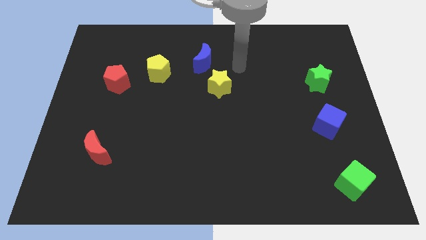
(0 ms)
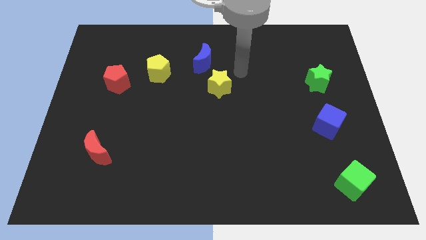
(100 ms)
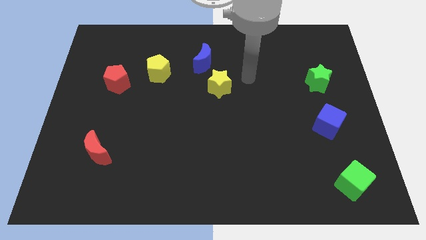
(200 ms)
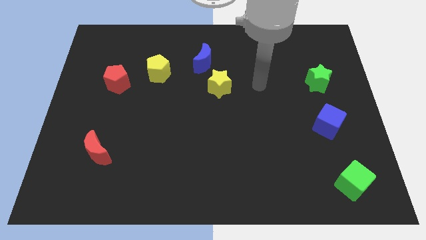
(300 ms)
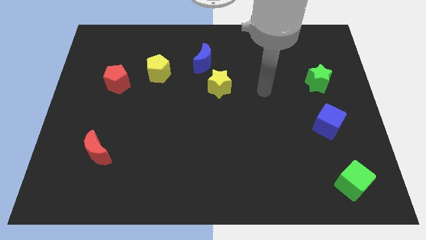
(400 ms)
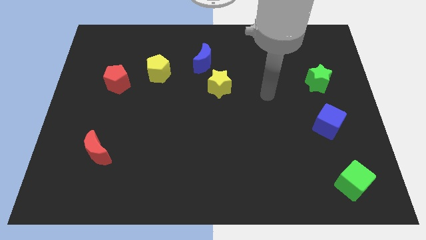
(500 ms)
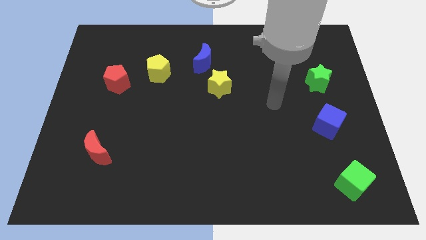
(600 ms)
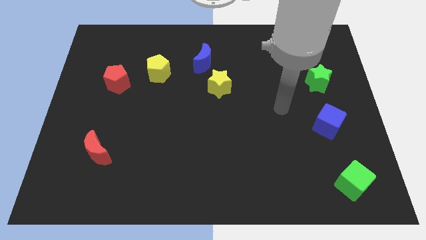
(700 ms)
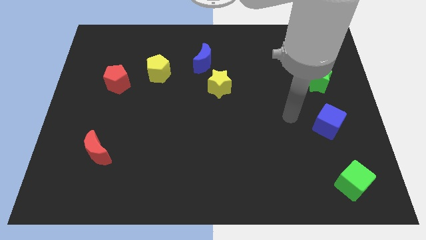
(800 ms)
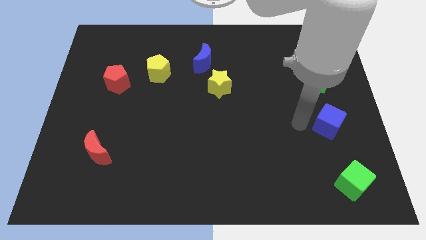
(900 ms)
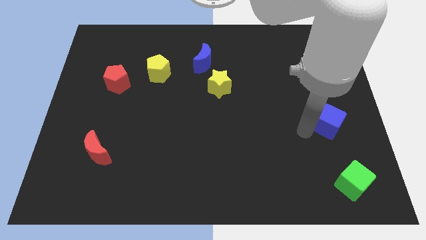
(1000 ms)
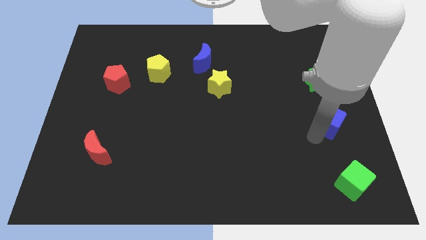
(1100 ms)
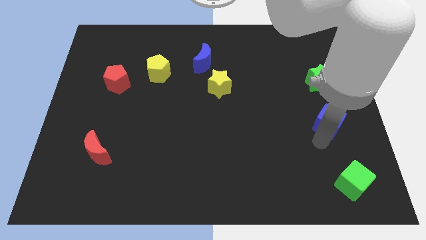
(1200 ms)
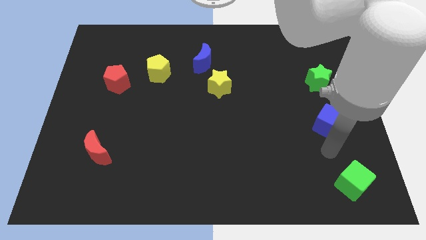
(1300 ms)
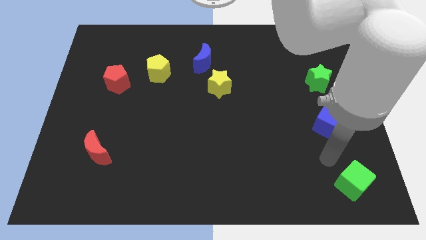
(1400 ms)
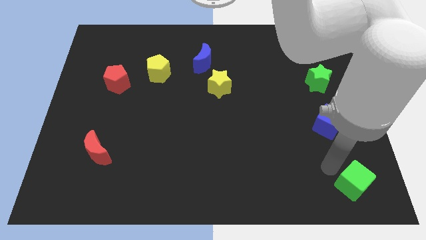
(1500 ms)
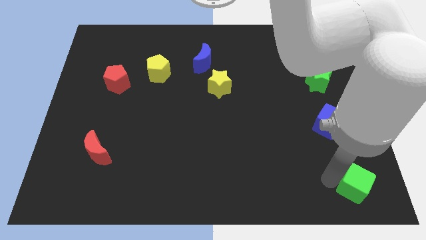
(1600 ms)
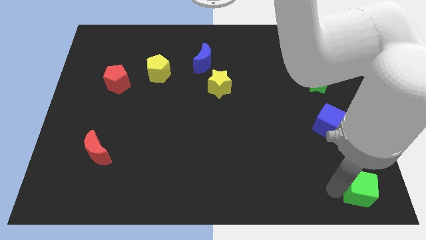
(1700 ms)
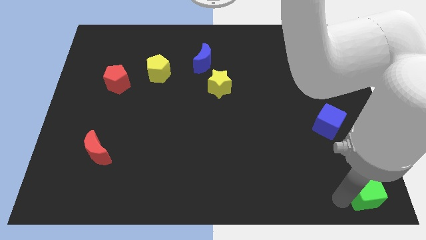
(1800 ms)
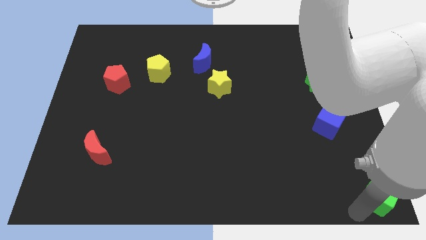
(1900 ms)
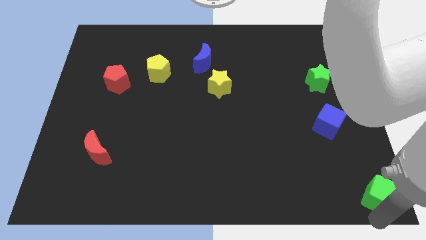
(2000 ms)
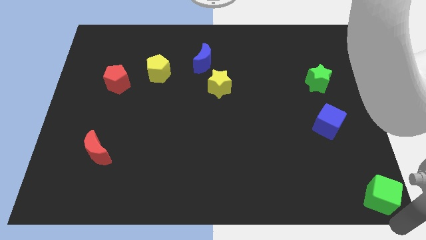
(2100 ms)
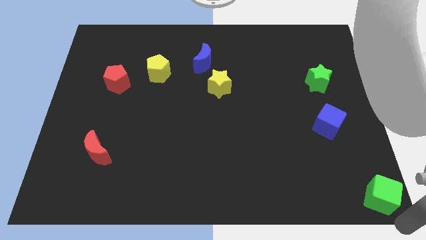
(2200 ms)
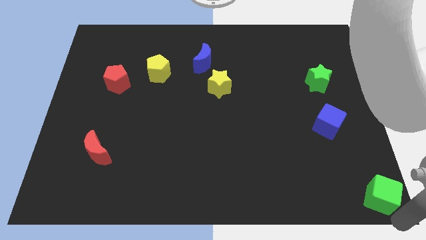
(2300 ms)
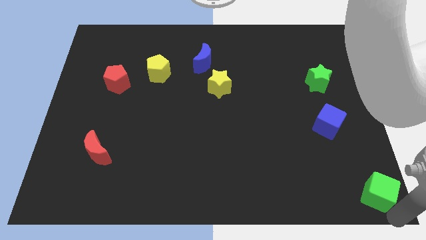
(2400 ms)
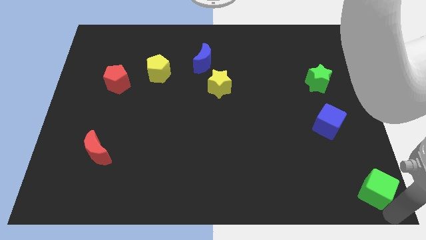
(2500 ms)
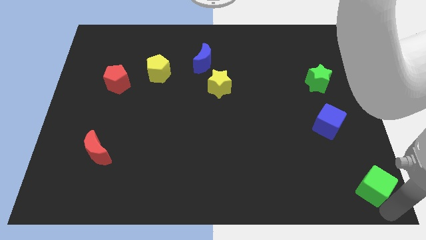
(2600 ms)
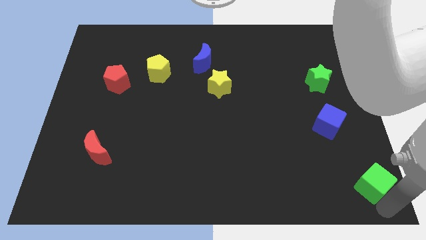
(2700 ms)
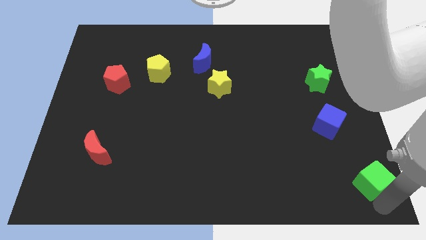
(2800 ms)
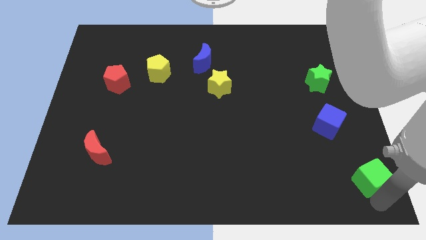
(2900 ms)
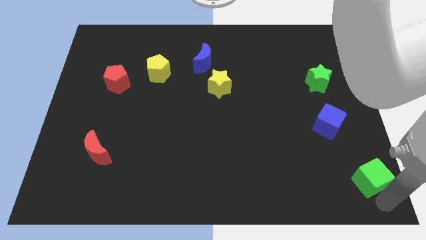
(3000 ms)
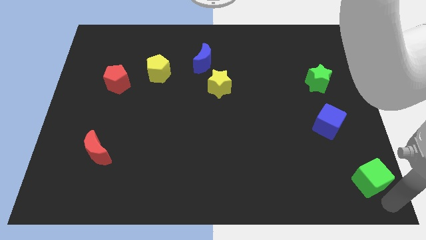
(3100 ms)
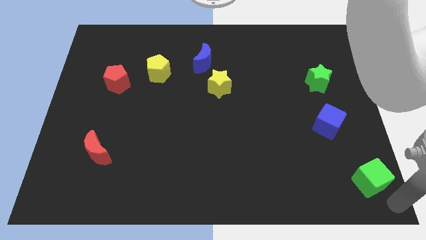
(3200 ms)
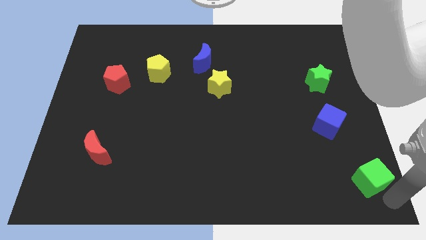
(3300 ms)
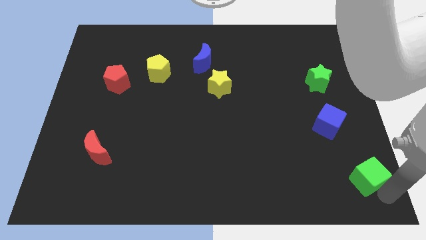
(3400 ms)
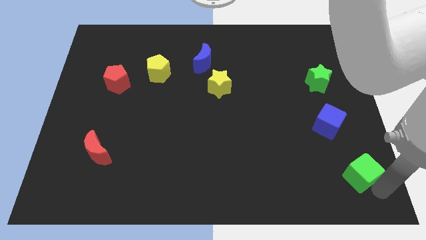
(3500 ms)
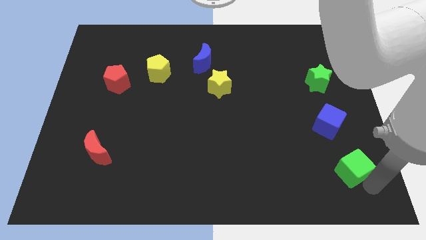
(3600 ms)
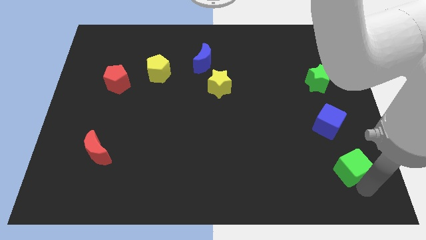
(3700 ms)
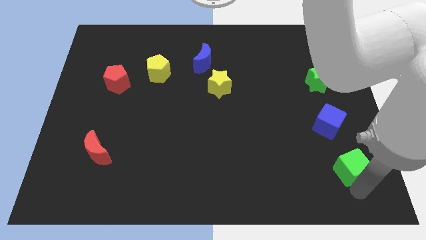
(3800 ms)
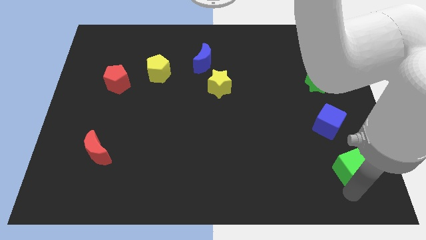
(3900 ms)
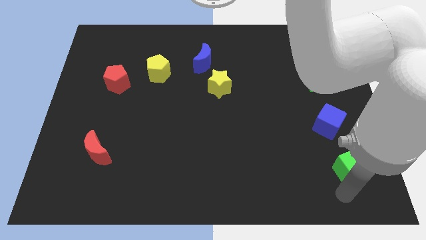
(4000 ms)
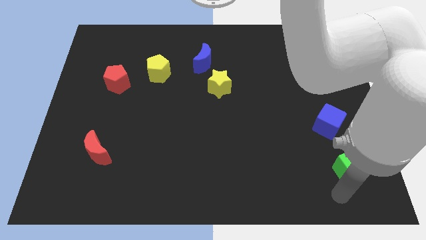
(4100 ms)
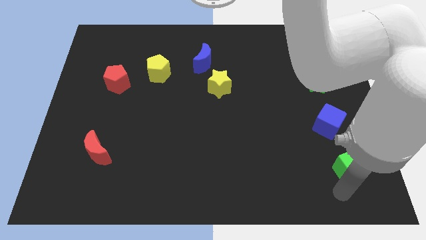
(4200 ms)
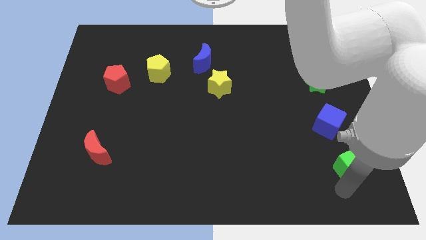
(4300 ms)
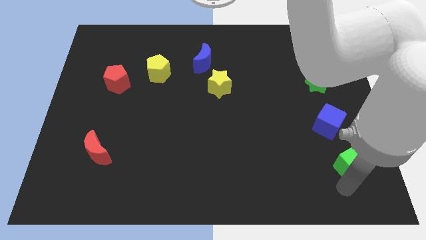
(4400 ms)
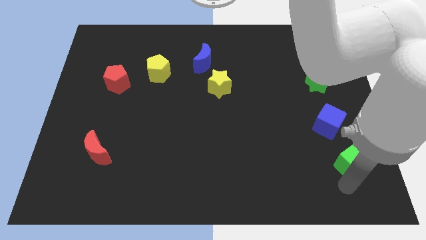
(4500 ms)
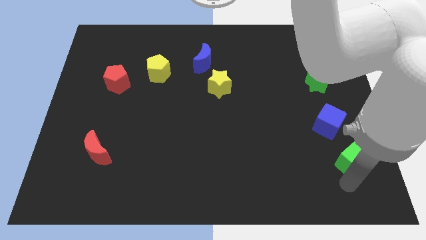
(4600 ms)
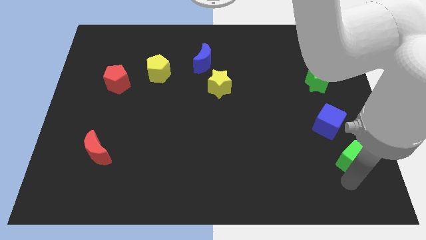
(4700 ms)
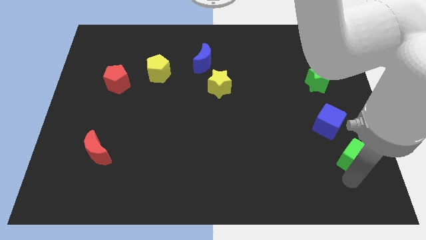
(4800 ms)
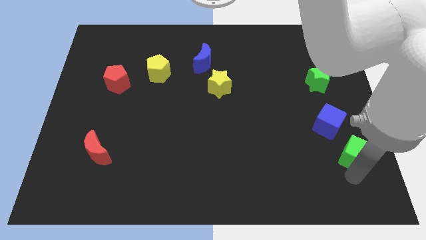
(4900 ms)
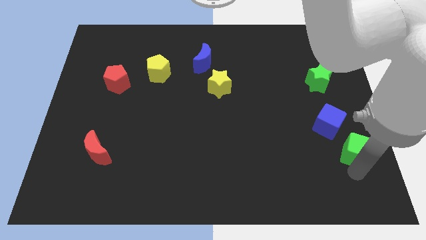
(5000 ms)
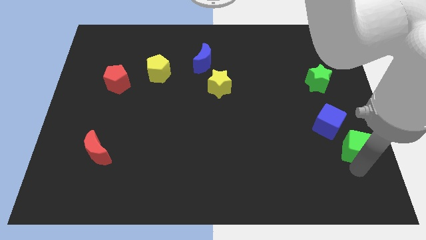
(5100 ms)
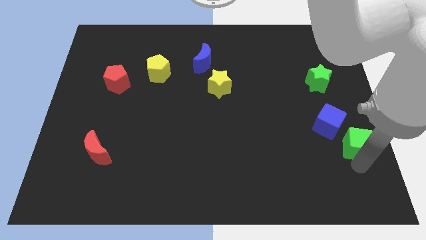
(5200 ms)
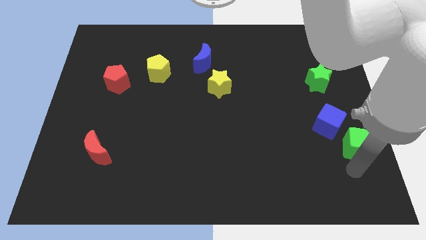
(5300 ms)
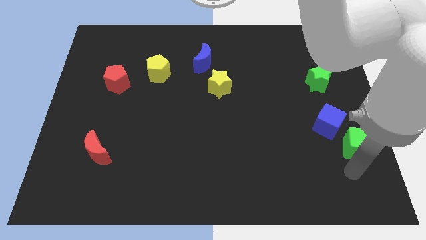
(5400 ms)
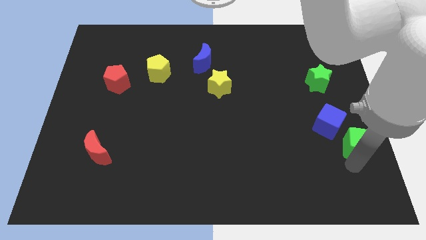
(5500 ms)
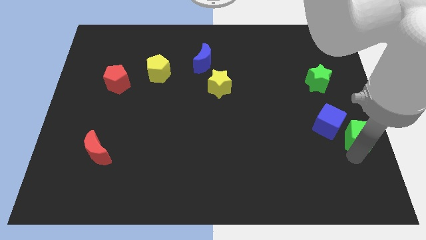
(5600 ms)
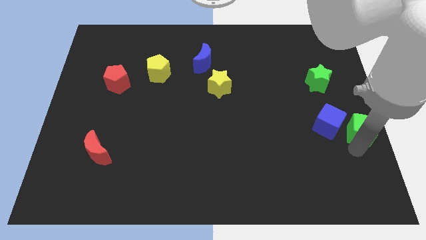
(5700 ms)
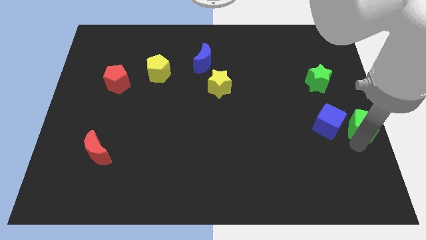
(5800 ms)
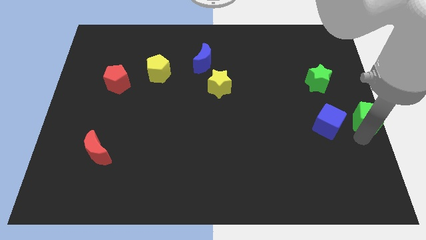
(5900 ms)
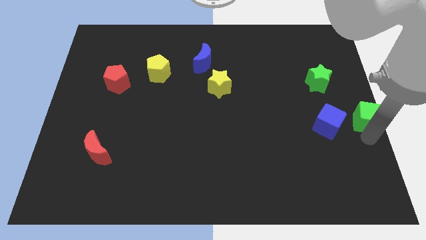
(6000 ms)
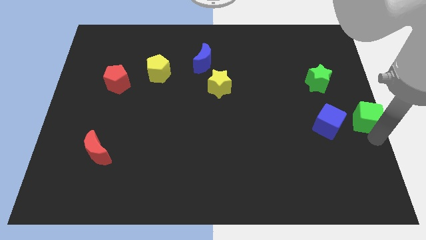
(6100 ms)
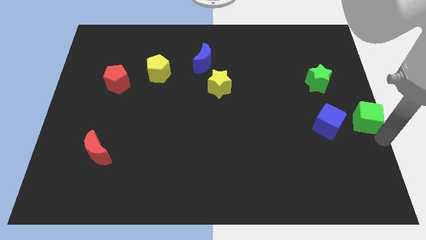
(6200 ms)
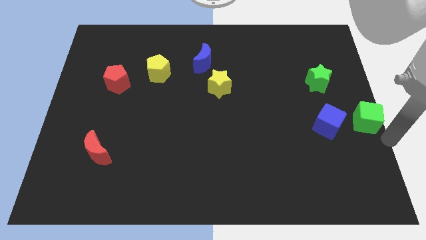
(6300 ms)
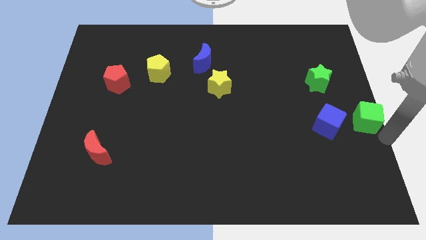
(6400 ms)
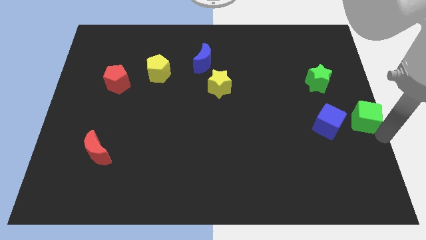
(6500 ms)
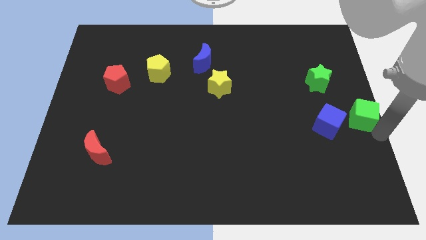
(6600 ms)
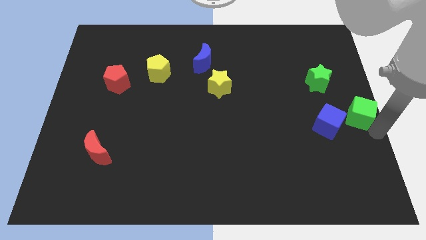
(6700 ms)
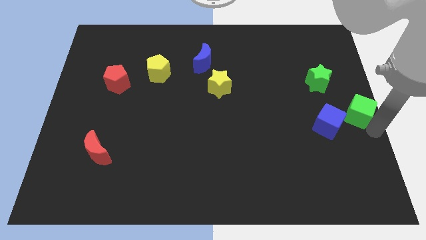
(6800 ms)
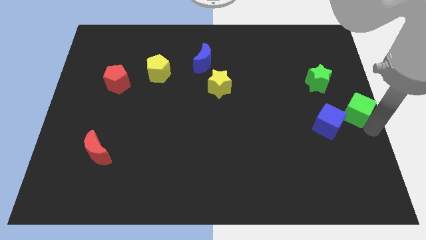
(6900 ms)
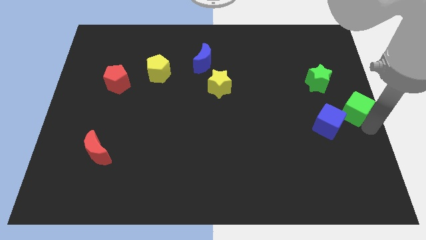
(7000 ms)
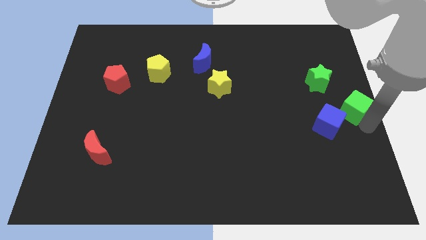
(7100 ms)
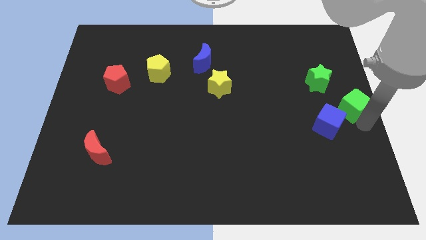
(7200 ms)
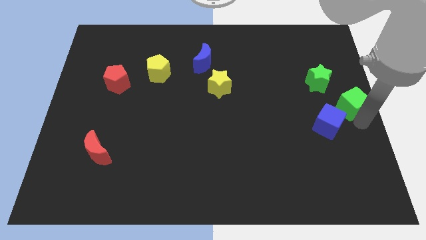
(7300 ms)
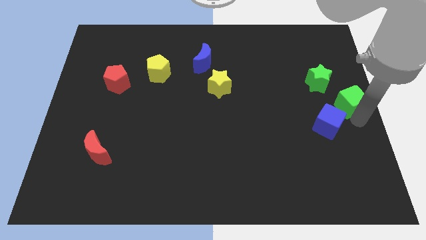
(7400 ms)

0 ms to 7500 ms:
slide the green cube upwards

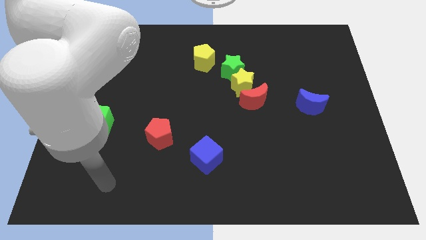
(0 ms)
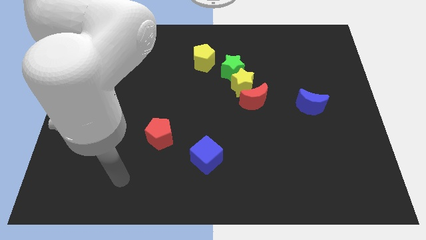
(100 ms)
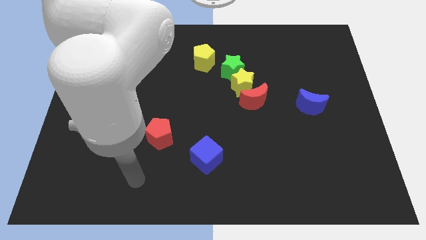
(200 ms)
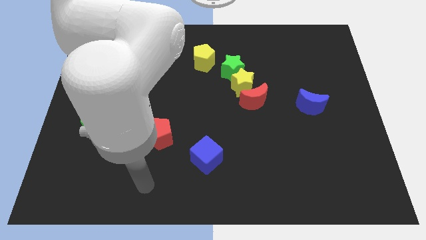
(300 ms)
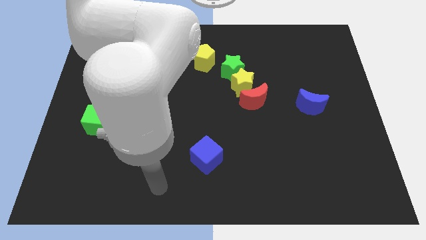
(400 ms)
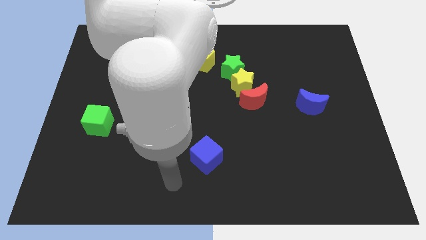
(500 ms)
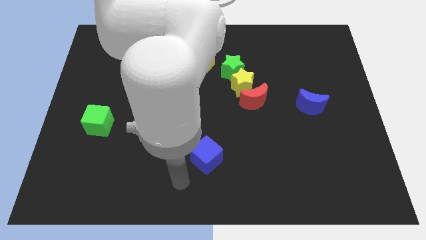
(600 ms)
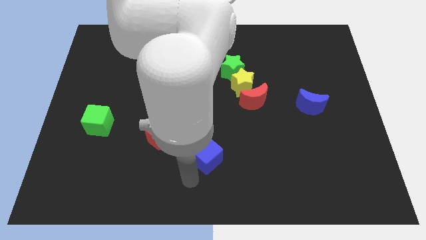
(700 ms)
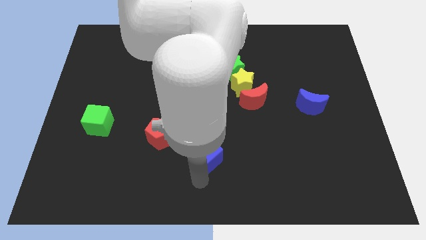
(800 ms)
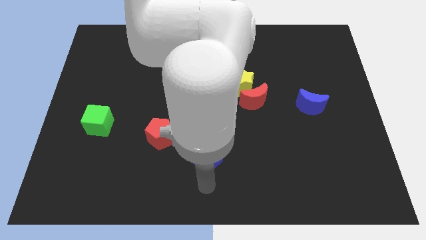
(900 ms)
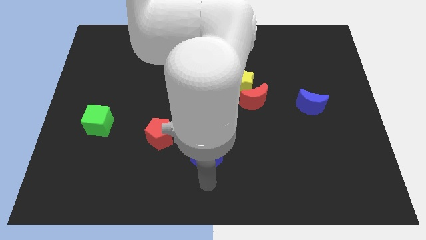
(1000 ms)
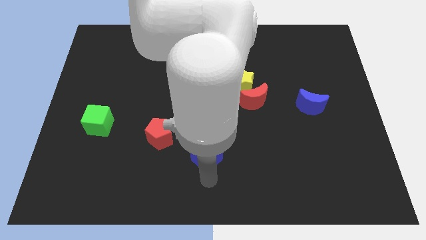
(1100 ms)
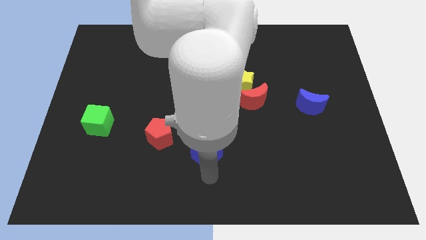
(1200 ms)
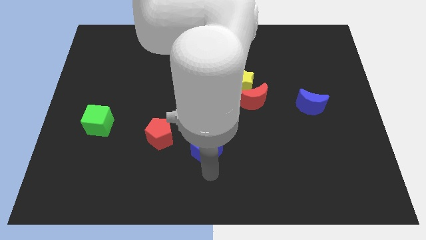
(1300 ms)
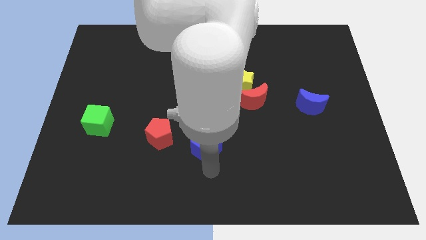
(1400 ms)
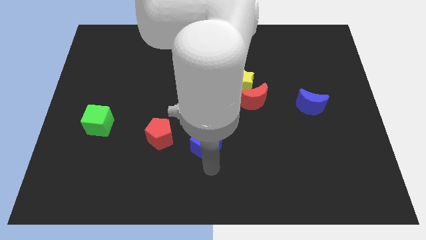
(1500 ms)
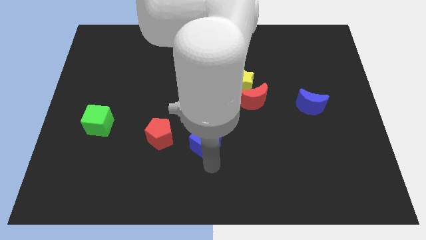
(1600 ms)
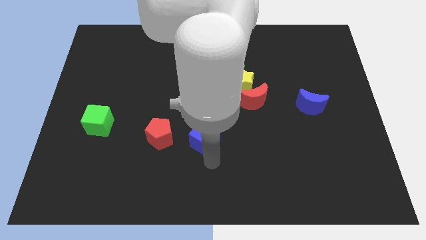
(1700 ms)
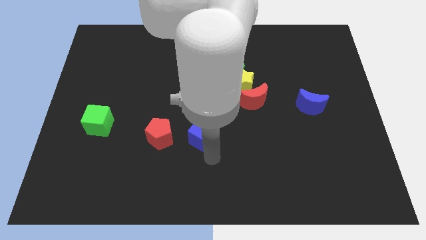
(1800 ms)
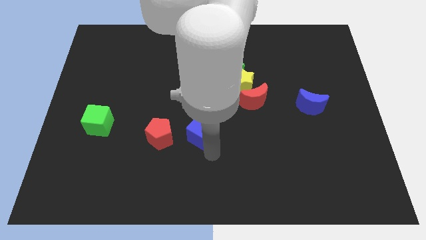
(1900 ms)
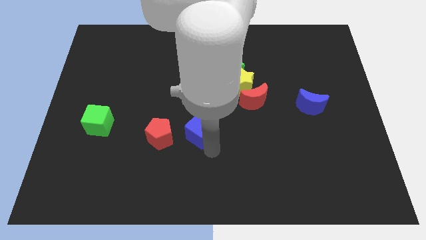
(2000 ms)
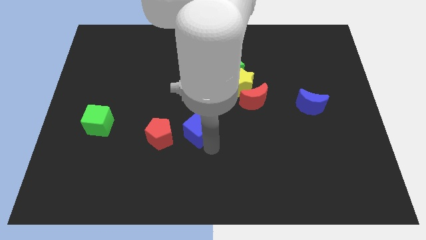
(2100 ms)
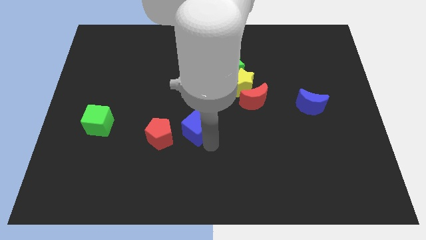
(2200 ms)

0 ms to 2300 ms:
push the blue cube a little upwards
